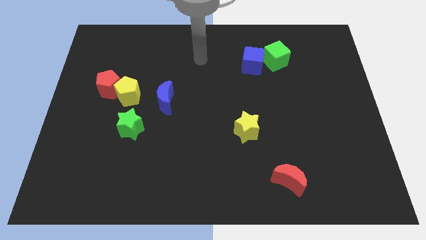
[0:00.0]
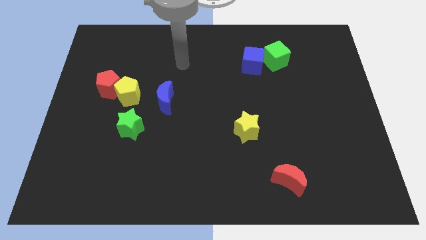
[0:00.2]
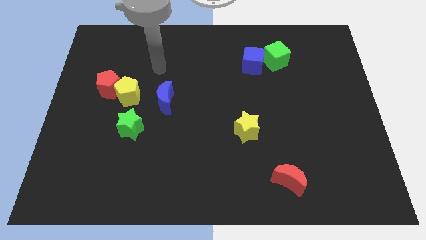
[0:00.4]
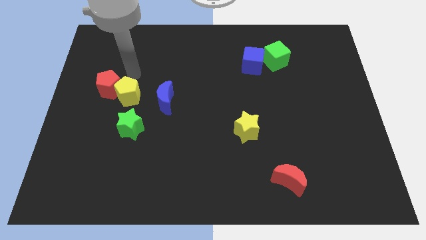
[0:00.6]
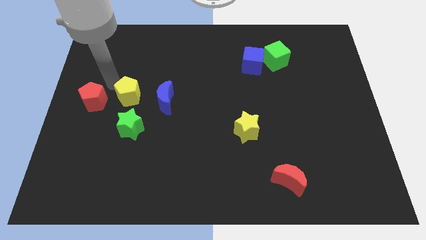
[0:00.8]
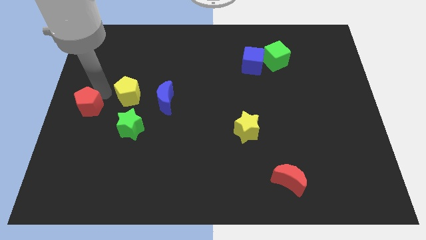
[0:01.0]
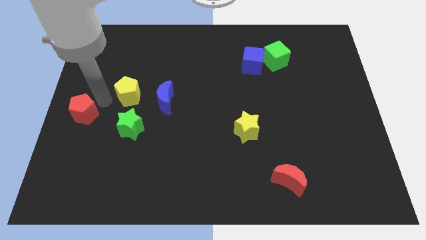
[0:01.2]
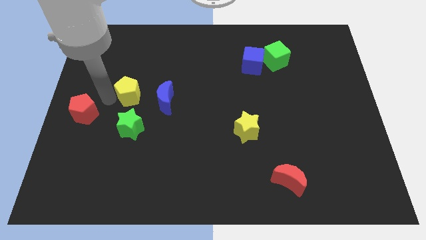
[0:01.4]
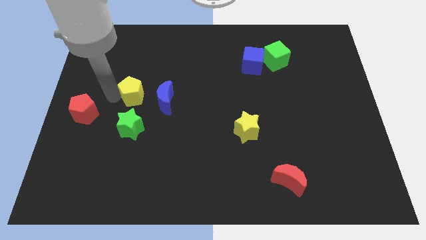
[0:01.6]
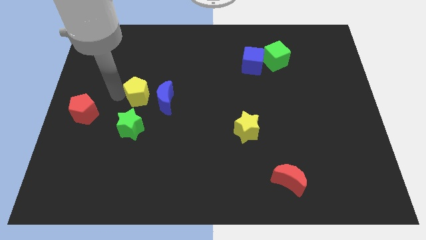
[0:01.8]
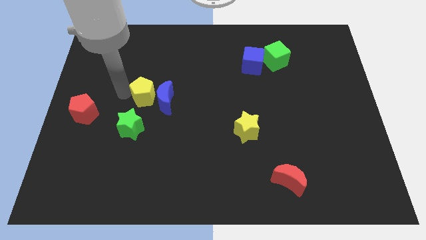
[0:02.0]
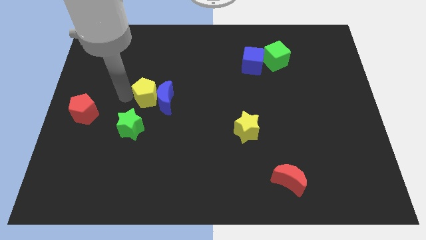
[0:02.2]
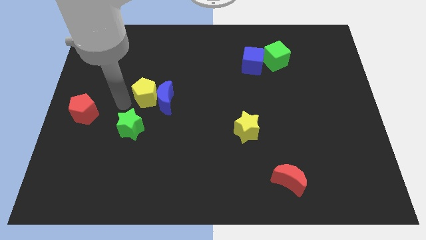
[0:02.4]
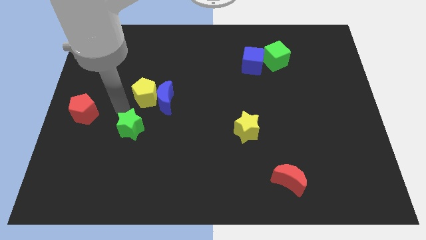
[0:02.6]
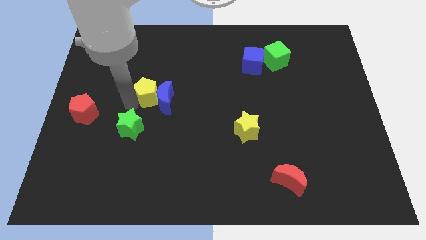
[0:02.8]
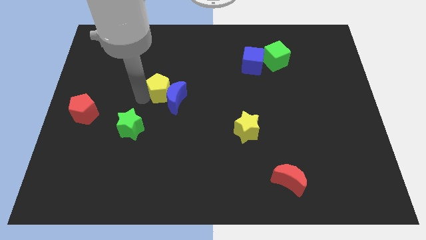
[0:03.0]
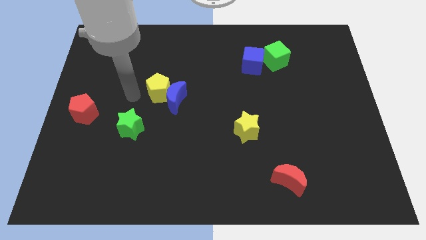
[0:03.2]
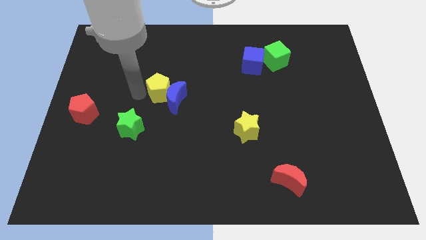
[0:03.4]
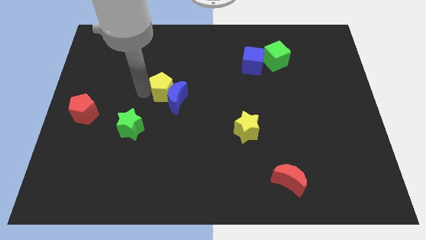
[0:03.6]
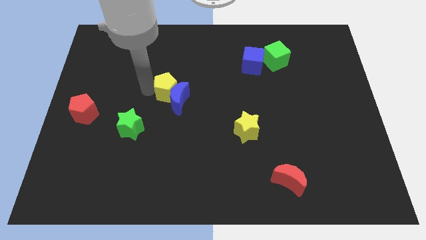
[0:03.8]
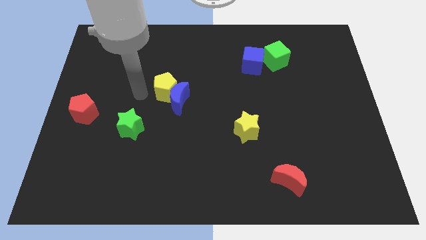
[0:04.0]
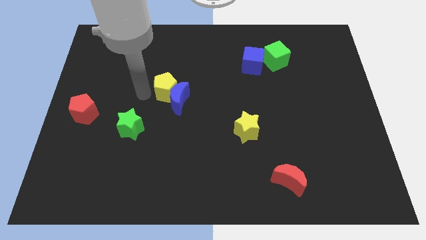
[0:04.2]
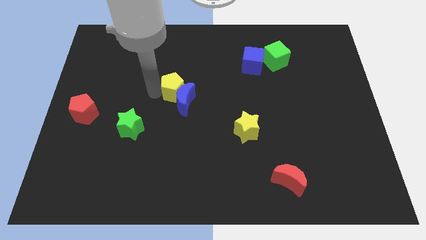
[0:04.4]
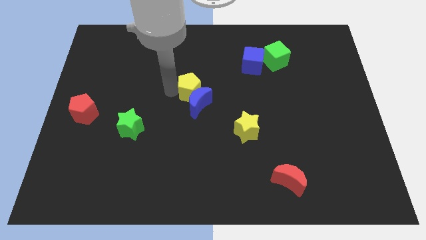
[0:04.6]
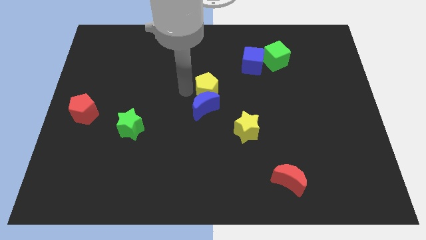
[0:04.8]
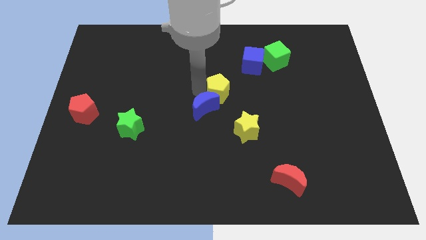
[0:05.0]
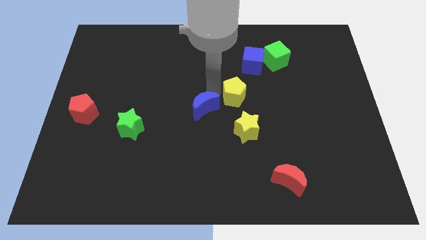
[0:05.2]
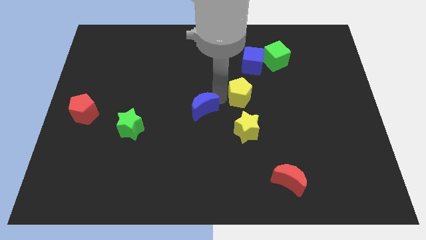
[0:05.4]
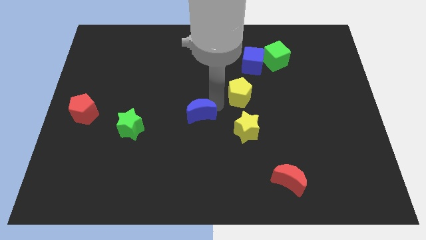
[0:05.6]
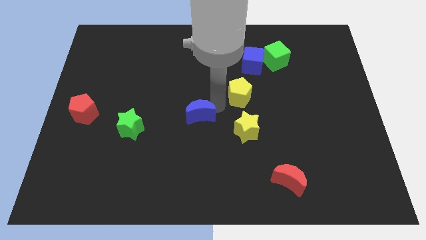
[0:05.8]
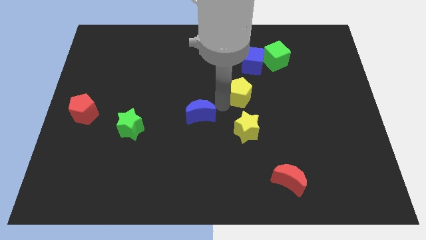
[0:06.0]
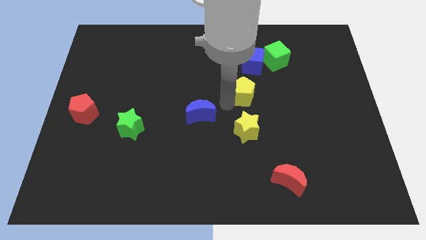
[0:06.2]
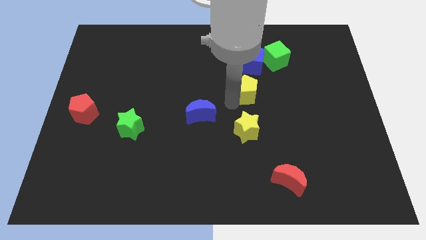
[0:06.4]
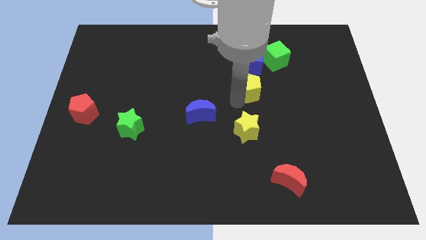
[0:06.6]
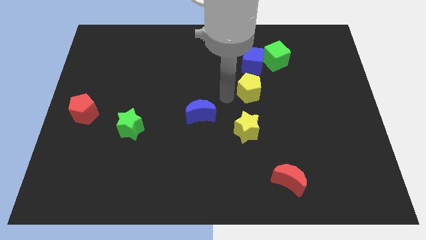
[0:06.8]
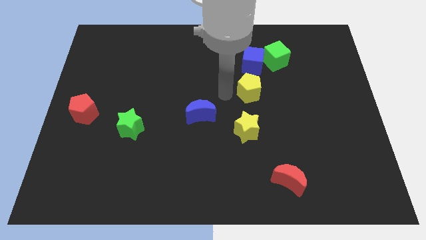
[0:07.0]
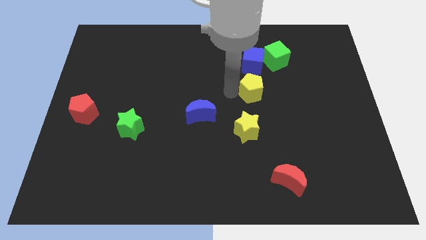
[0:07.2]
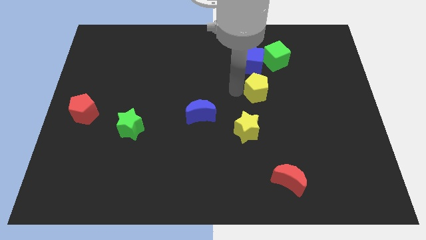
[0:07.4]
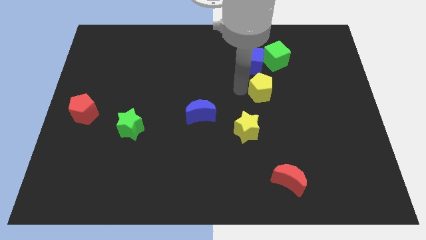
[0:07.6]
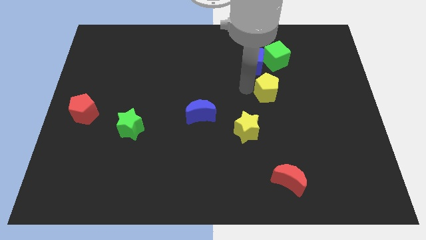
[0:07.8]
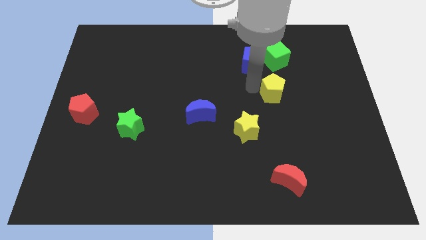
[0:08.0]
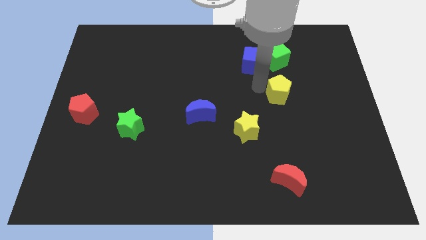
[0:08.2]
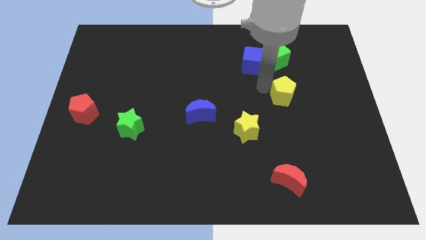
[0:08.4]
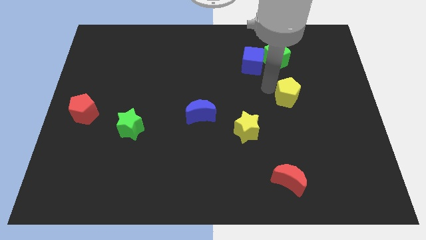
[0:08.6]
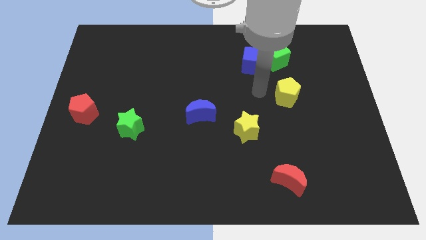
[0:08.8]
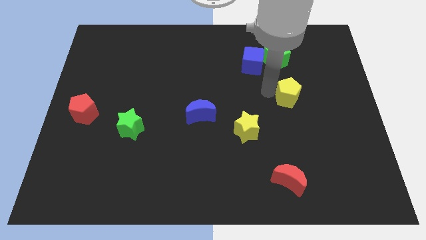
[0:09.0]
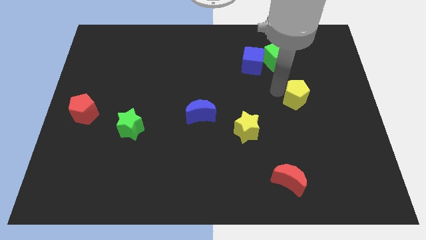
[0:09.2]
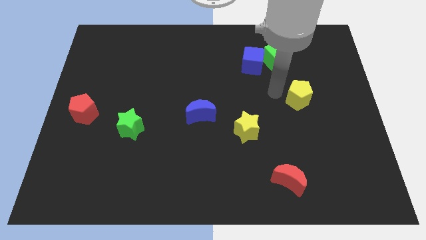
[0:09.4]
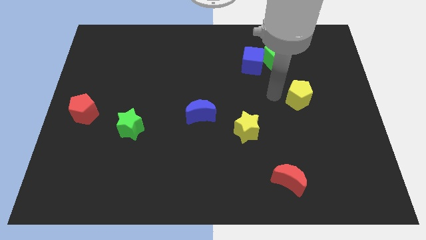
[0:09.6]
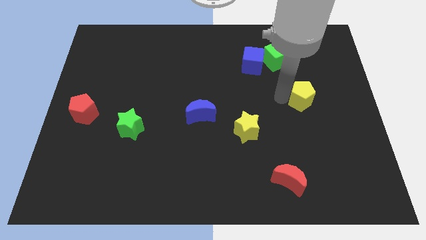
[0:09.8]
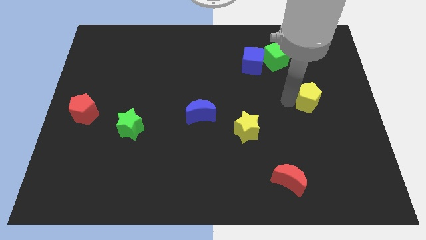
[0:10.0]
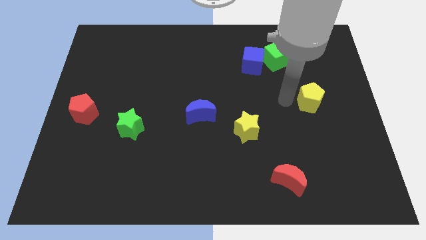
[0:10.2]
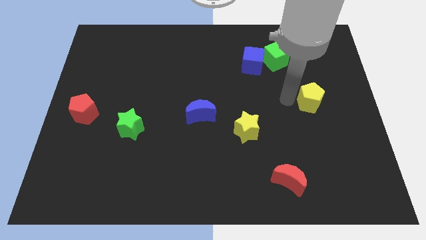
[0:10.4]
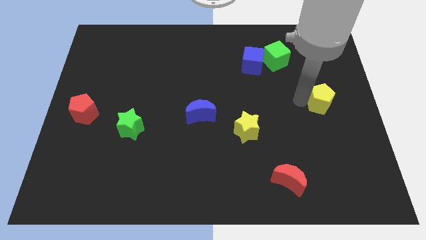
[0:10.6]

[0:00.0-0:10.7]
slide the yellow pentagon to the center right

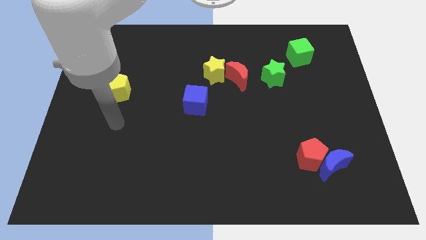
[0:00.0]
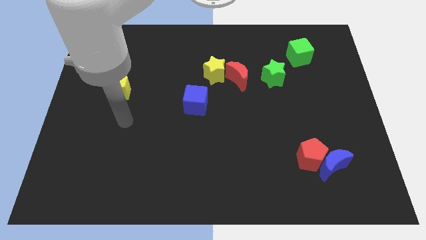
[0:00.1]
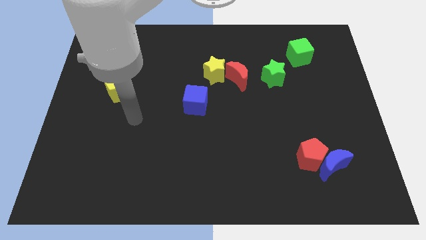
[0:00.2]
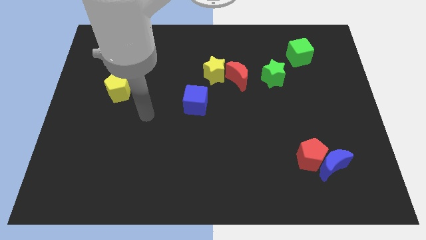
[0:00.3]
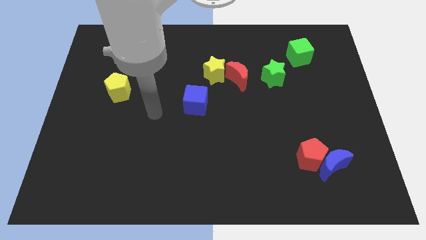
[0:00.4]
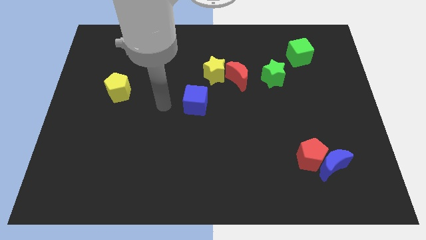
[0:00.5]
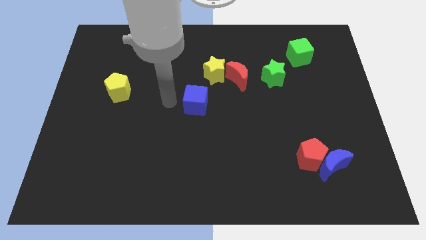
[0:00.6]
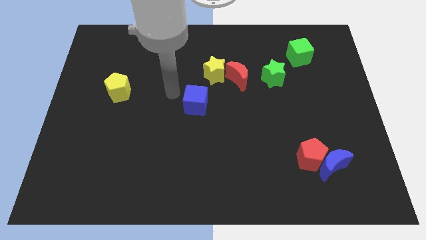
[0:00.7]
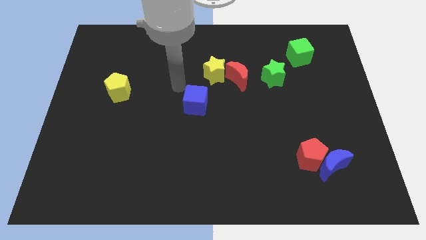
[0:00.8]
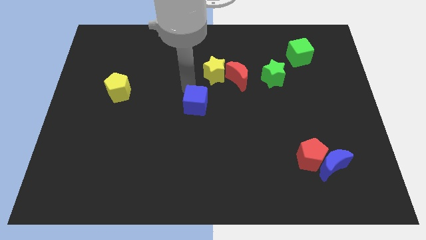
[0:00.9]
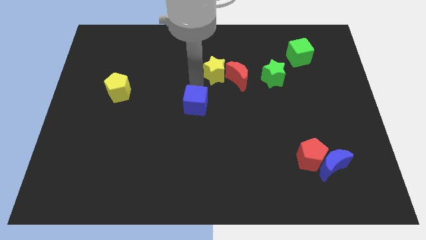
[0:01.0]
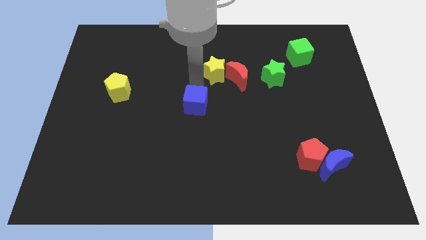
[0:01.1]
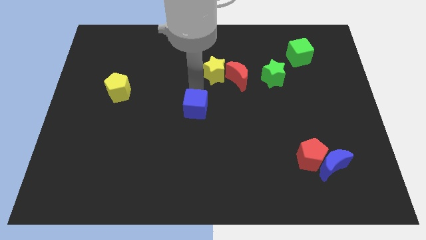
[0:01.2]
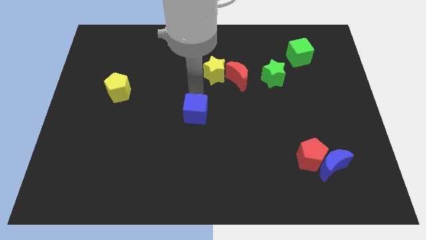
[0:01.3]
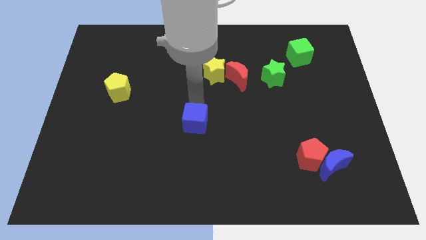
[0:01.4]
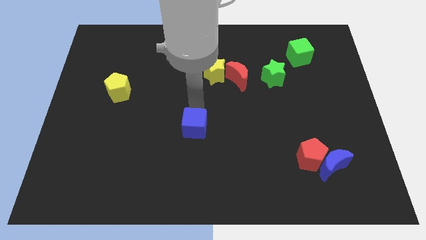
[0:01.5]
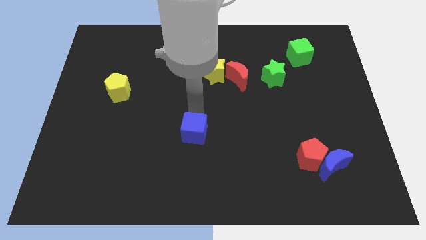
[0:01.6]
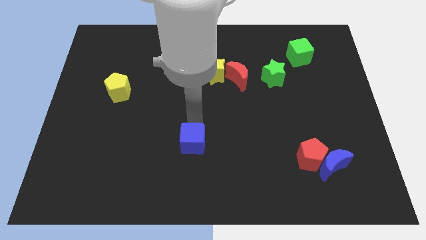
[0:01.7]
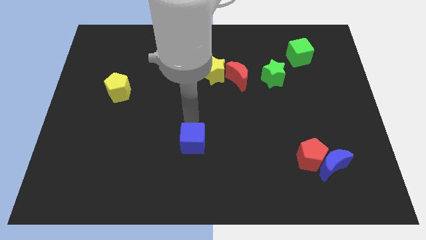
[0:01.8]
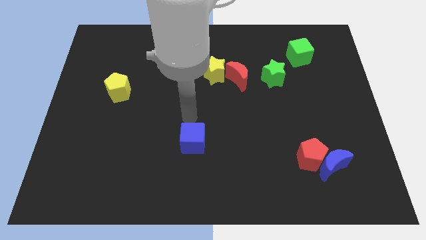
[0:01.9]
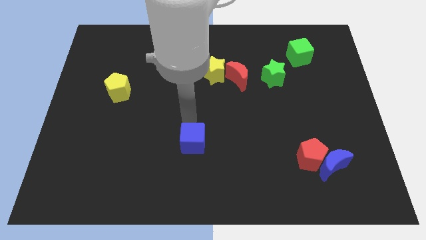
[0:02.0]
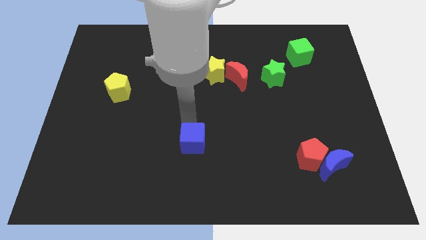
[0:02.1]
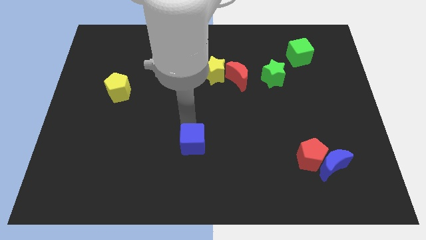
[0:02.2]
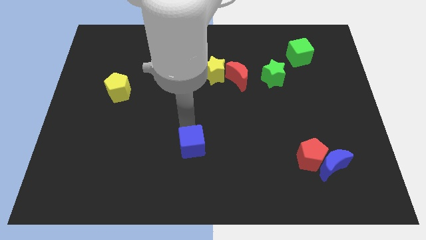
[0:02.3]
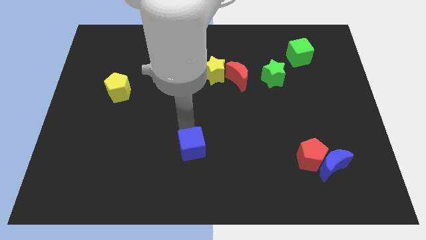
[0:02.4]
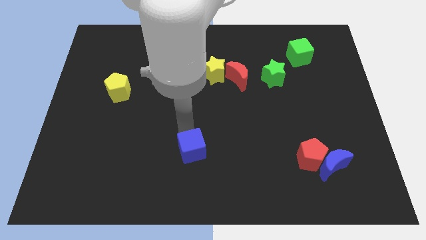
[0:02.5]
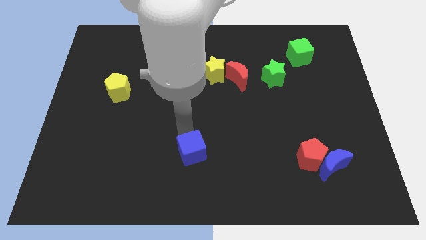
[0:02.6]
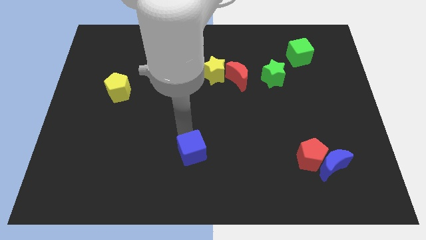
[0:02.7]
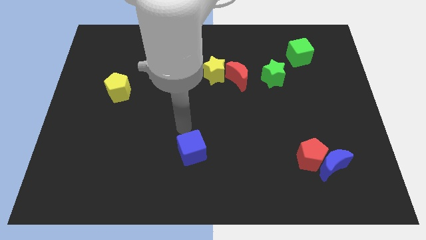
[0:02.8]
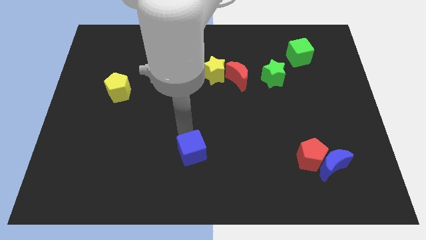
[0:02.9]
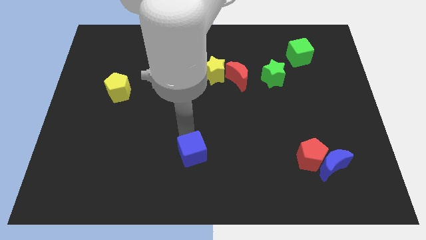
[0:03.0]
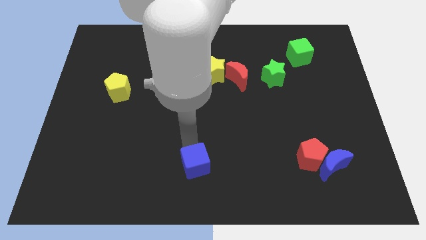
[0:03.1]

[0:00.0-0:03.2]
put the blue cube to the bottom side
